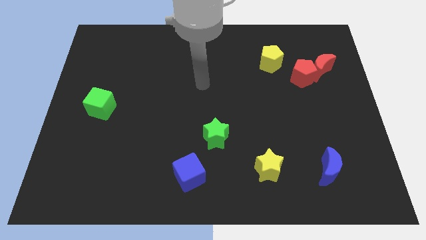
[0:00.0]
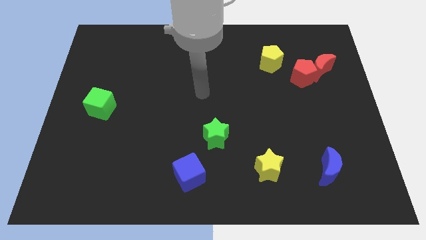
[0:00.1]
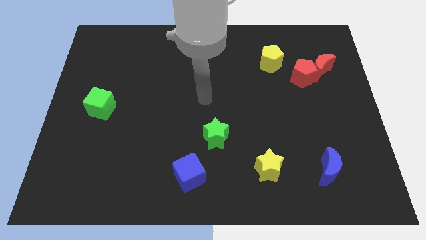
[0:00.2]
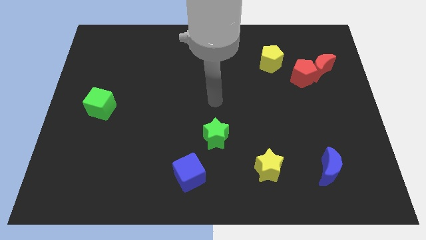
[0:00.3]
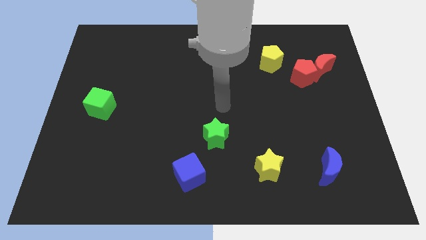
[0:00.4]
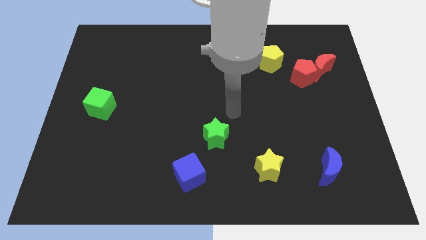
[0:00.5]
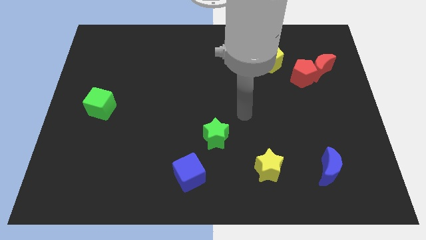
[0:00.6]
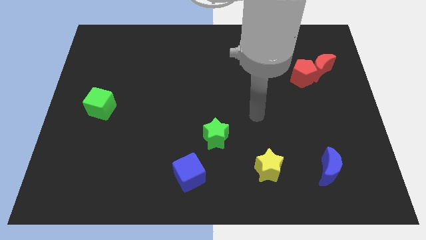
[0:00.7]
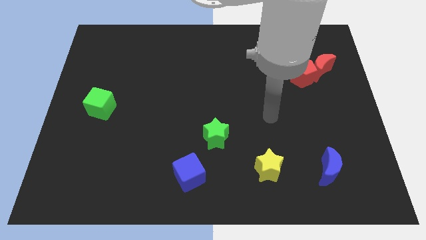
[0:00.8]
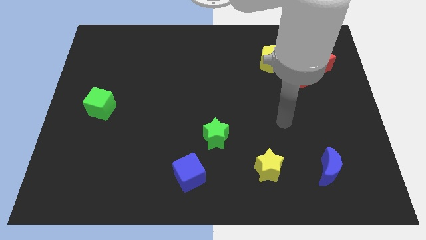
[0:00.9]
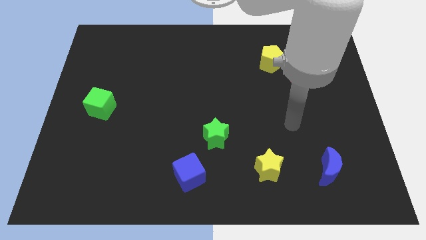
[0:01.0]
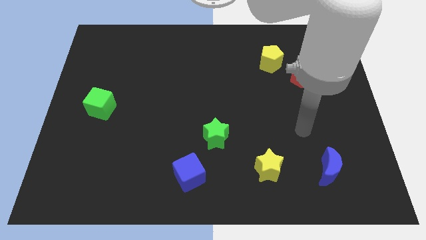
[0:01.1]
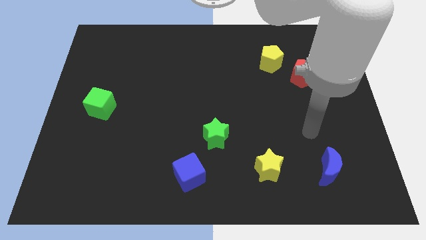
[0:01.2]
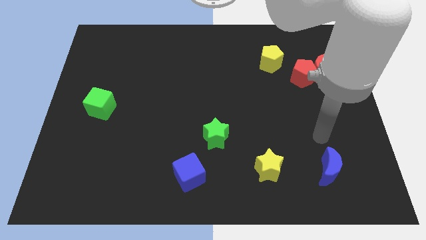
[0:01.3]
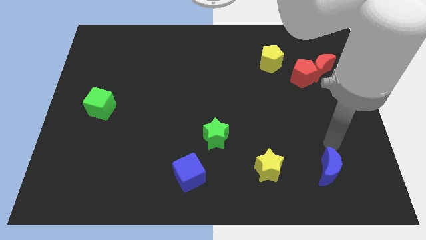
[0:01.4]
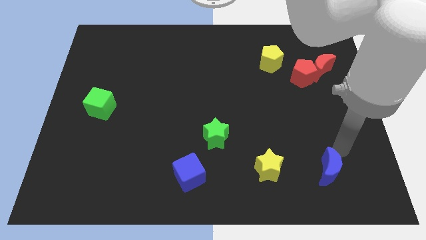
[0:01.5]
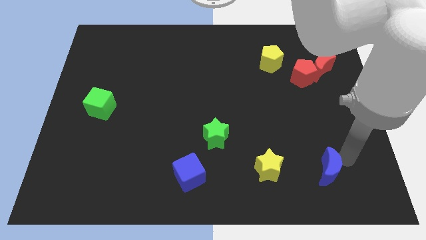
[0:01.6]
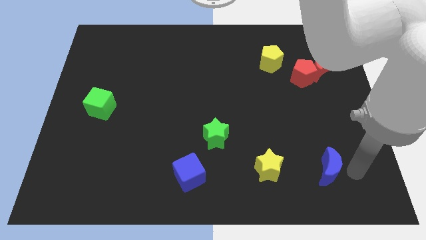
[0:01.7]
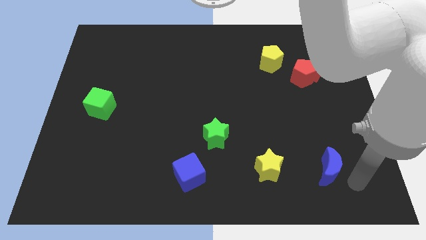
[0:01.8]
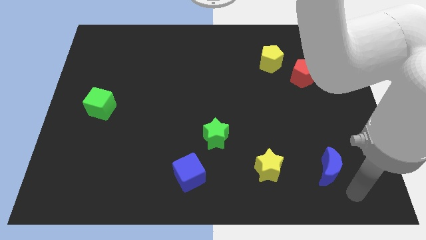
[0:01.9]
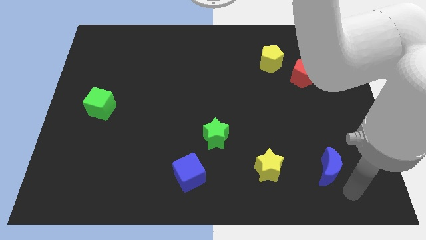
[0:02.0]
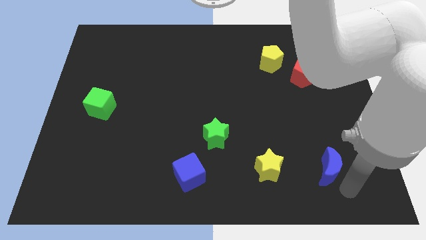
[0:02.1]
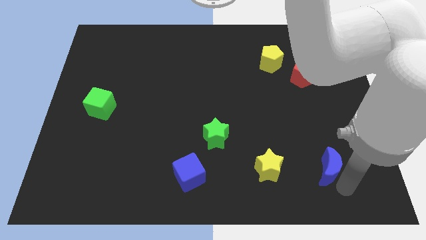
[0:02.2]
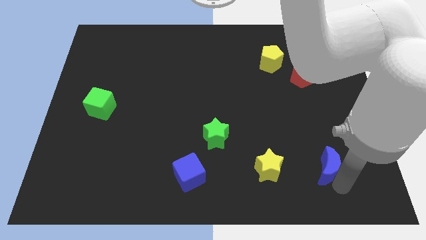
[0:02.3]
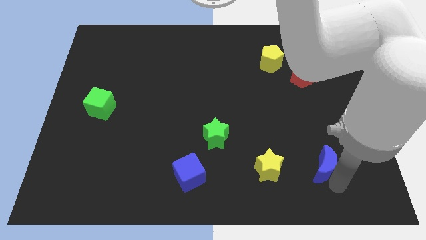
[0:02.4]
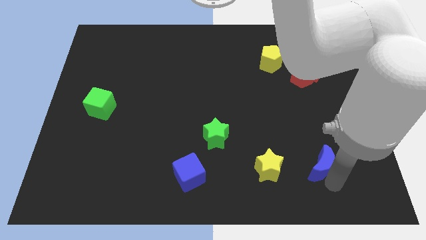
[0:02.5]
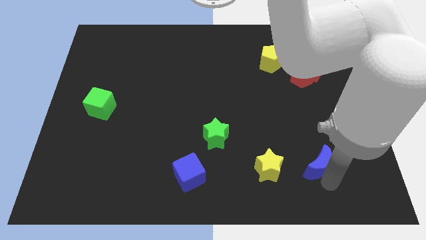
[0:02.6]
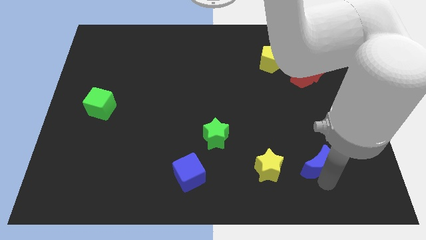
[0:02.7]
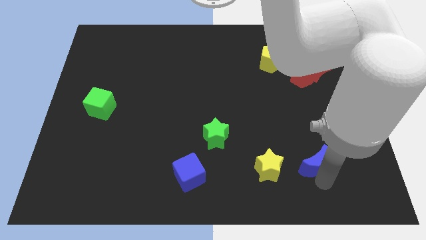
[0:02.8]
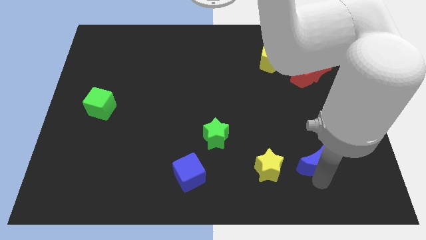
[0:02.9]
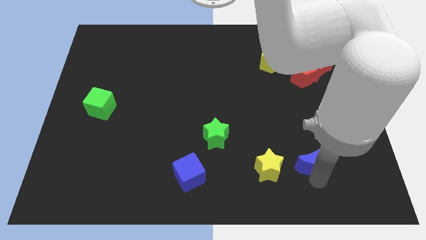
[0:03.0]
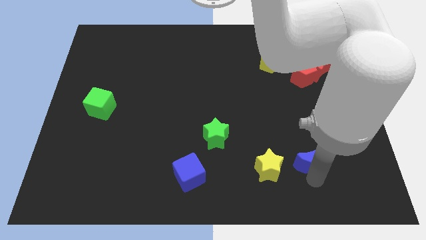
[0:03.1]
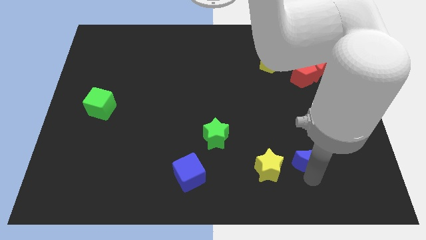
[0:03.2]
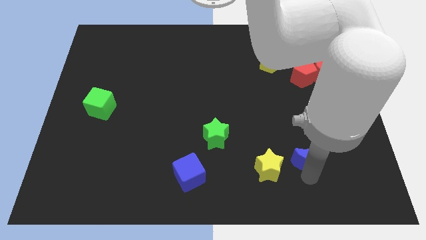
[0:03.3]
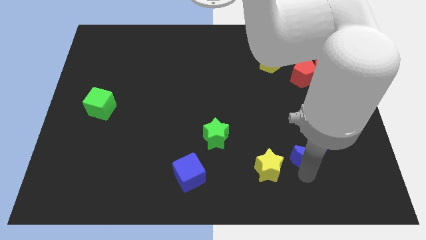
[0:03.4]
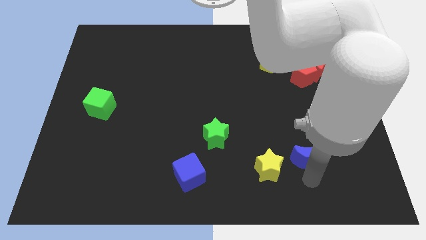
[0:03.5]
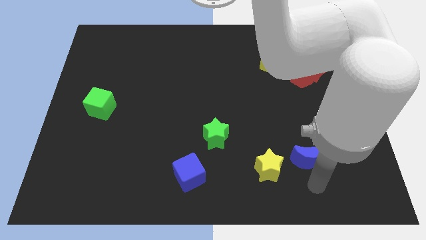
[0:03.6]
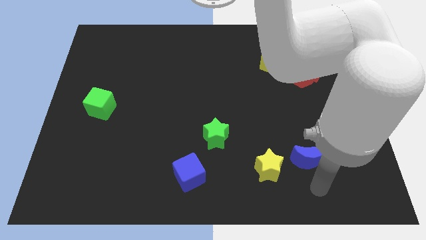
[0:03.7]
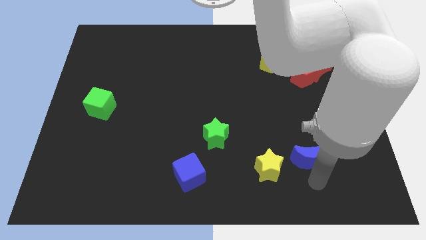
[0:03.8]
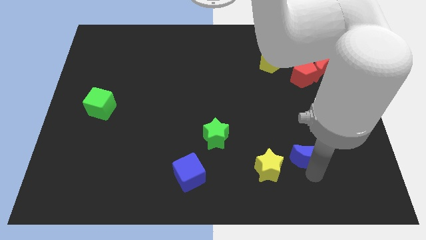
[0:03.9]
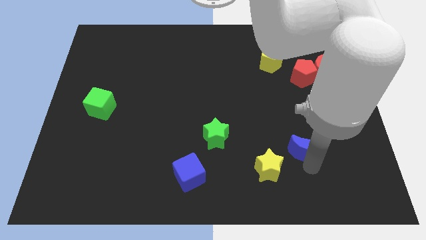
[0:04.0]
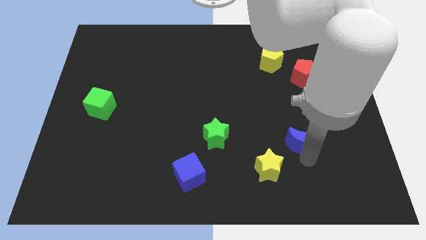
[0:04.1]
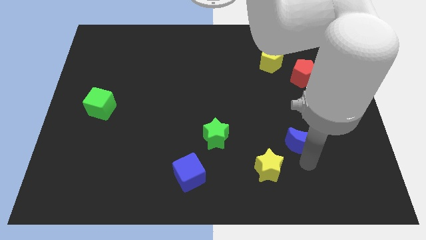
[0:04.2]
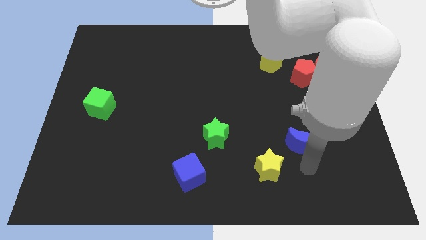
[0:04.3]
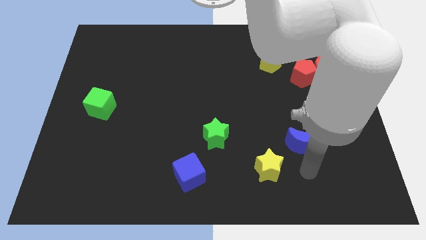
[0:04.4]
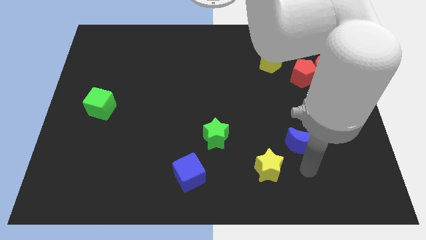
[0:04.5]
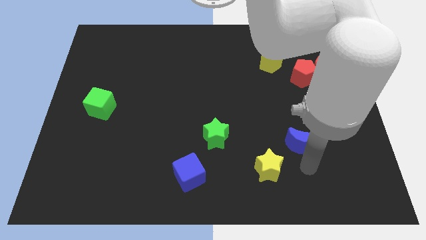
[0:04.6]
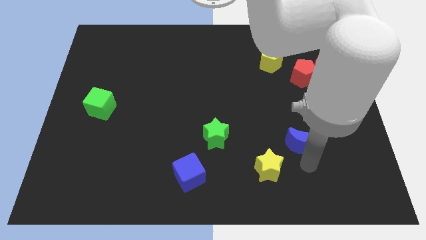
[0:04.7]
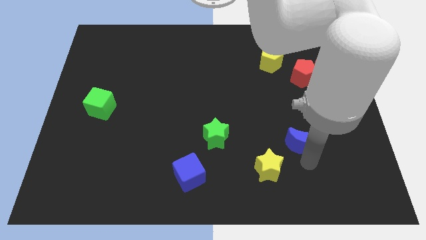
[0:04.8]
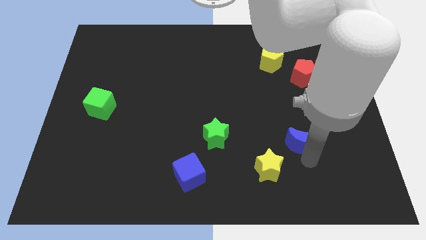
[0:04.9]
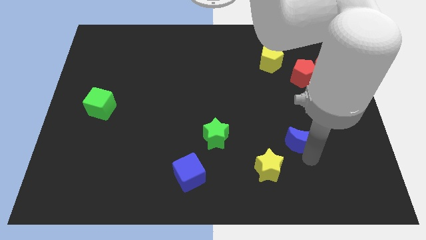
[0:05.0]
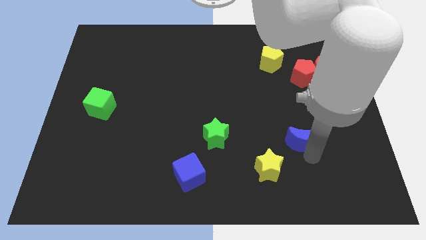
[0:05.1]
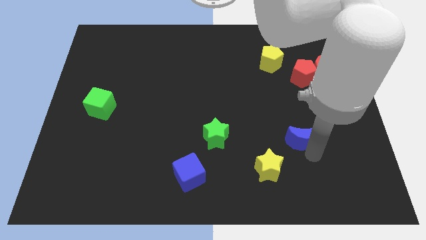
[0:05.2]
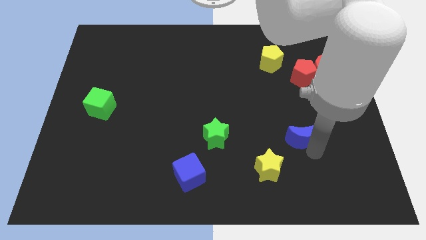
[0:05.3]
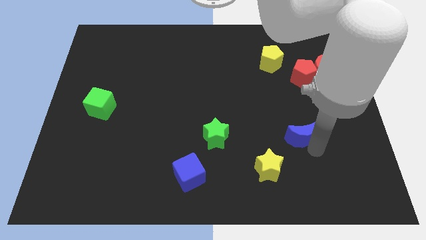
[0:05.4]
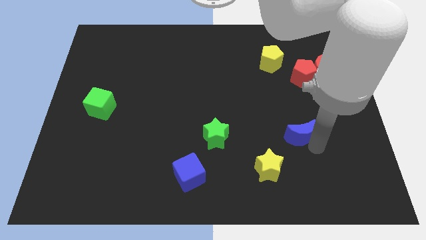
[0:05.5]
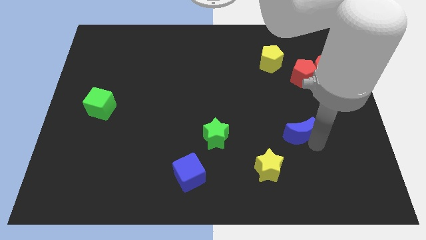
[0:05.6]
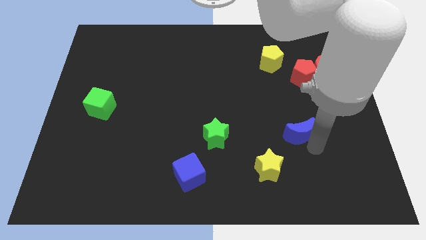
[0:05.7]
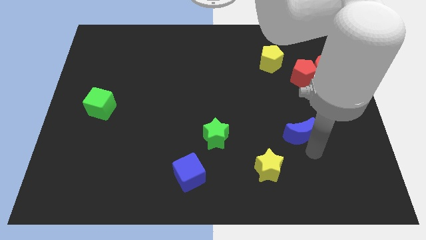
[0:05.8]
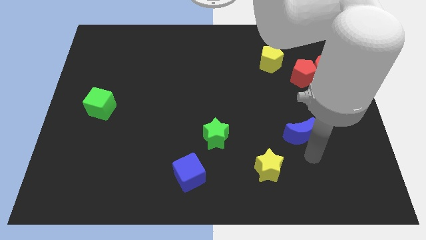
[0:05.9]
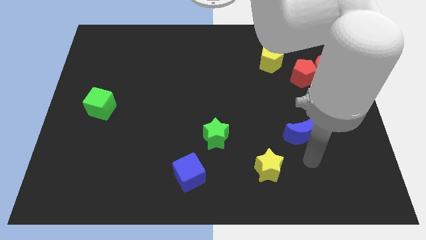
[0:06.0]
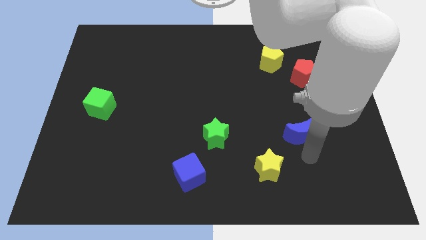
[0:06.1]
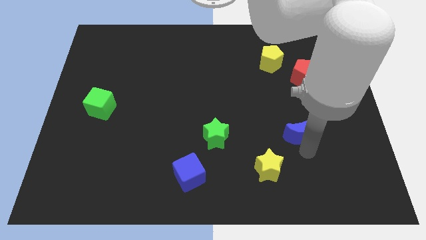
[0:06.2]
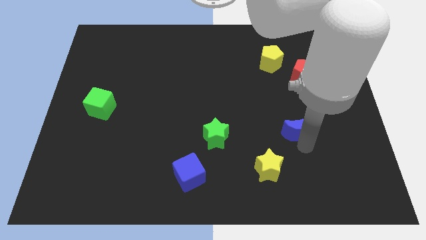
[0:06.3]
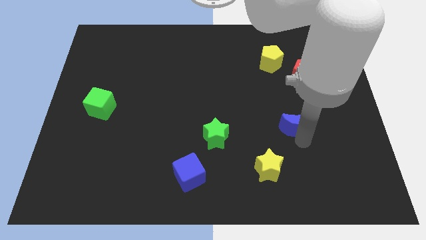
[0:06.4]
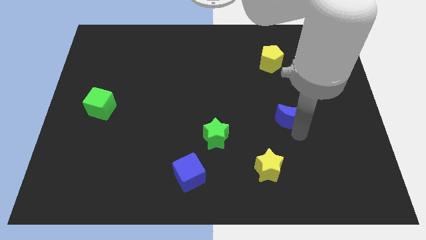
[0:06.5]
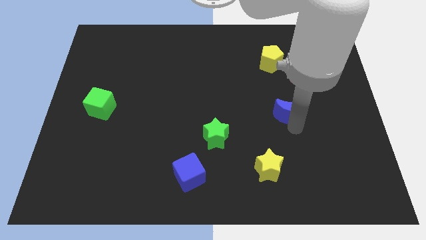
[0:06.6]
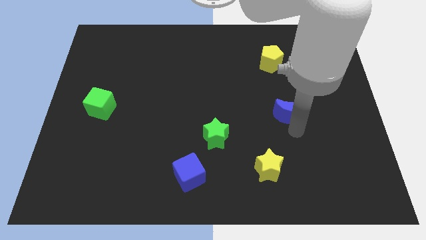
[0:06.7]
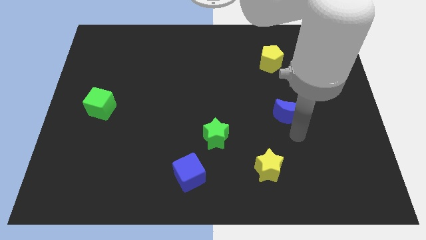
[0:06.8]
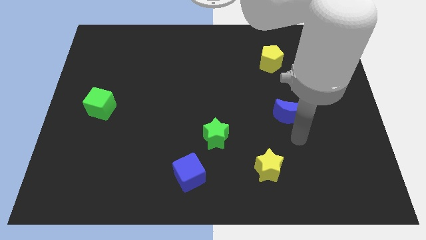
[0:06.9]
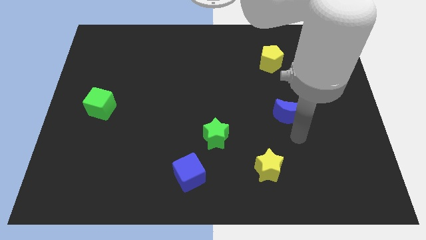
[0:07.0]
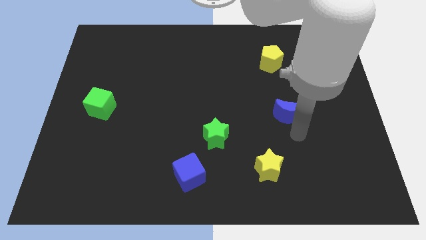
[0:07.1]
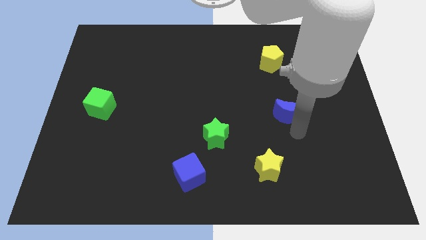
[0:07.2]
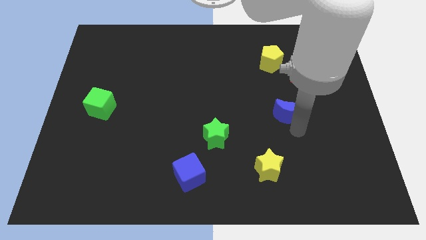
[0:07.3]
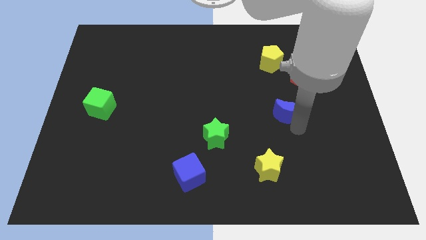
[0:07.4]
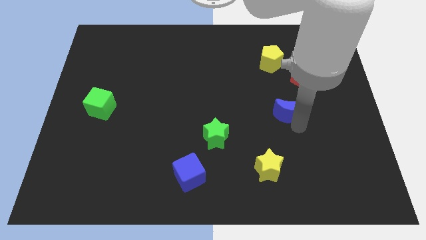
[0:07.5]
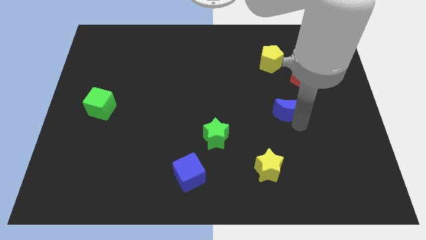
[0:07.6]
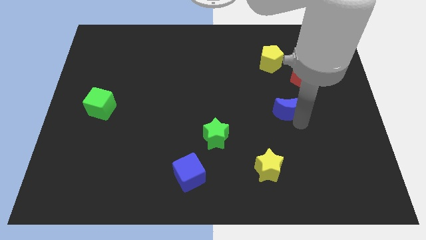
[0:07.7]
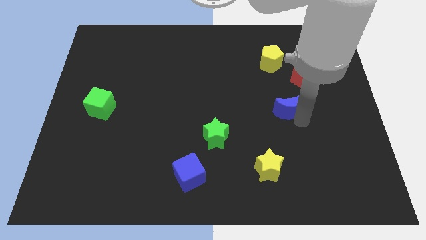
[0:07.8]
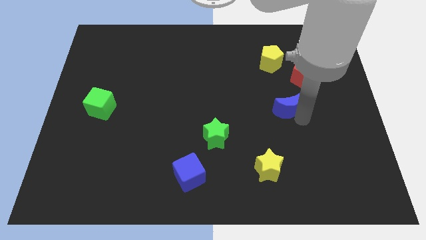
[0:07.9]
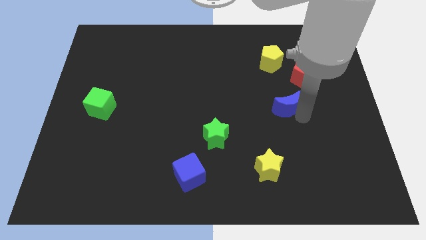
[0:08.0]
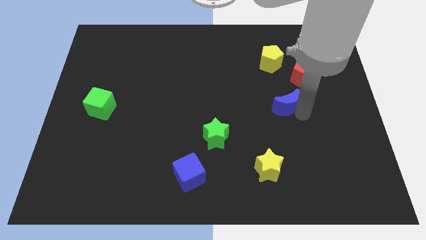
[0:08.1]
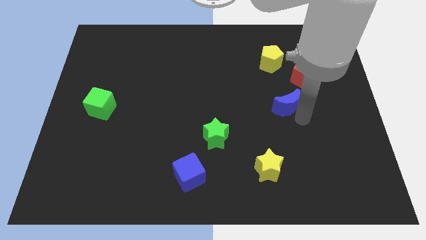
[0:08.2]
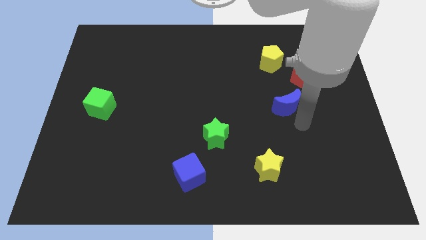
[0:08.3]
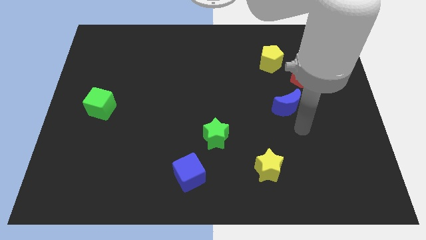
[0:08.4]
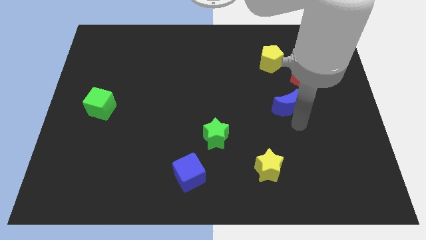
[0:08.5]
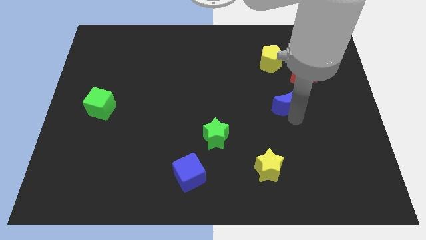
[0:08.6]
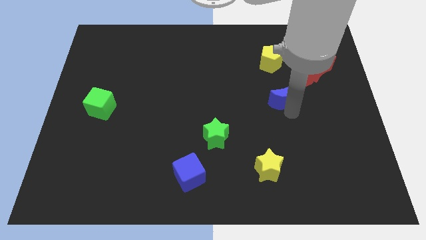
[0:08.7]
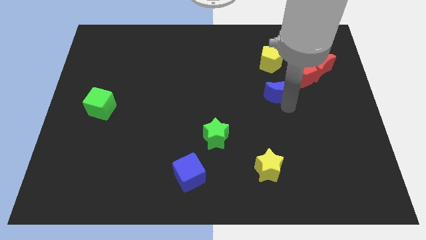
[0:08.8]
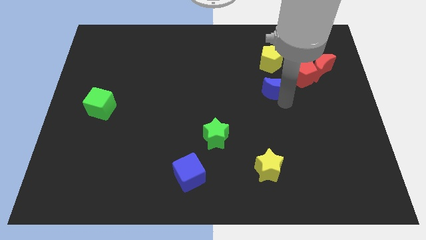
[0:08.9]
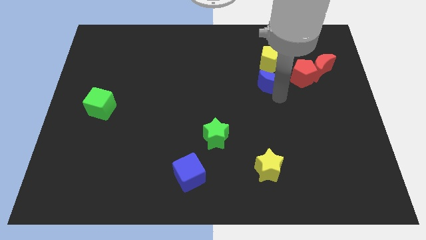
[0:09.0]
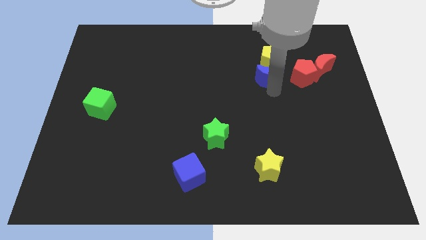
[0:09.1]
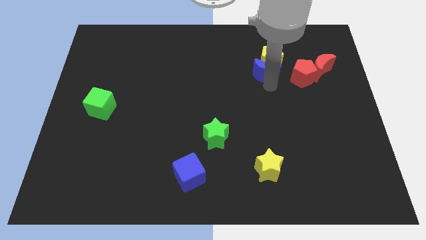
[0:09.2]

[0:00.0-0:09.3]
slide the blue moon towards the yellow pentagon
